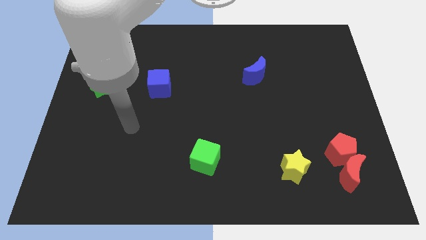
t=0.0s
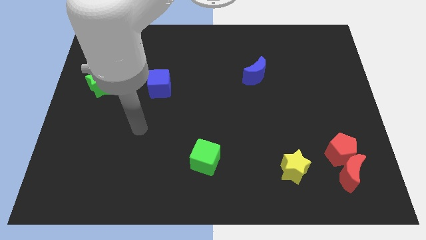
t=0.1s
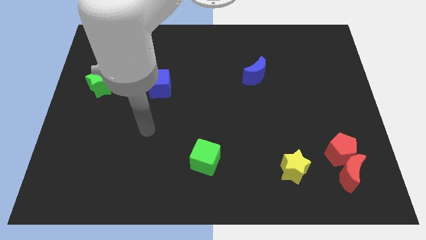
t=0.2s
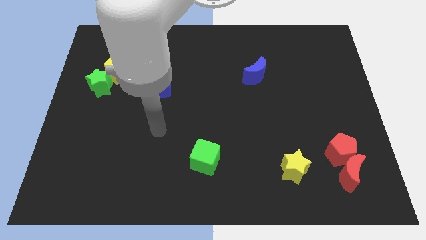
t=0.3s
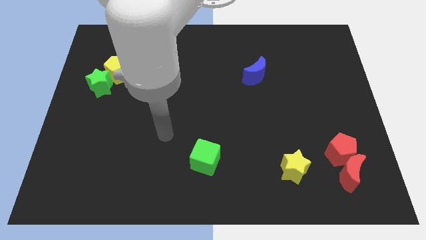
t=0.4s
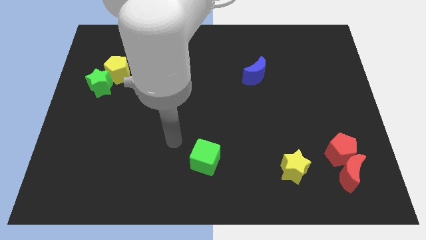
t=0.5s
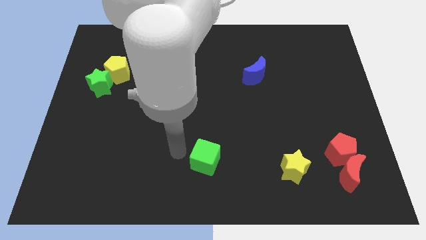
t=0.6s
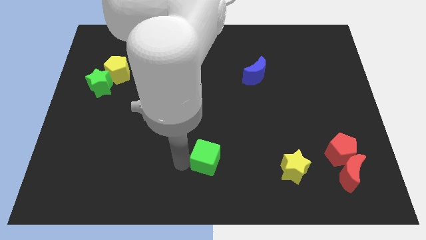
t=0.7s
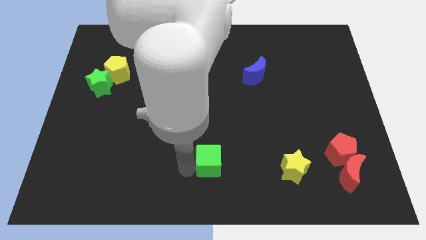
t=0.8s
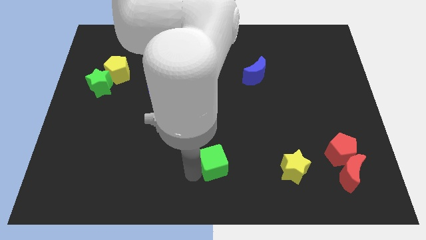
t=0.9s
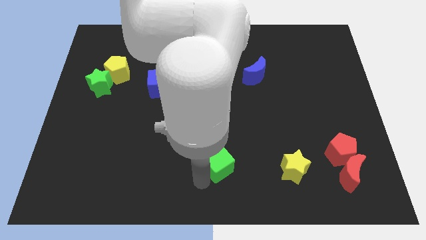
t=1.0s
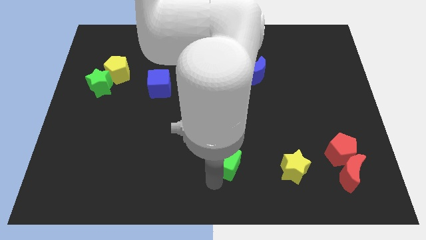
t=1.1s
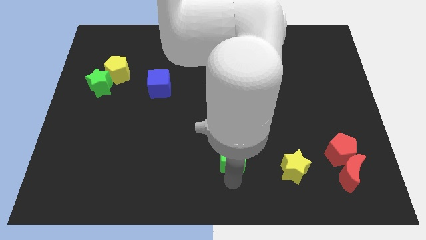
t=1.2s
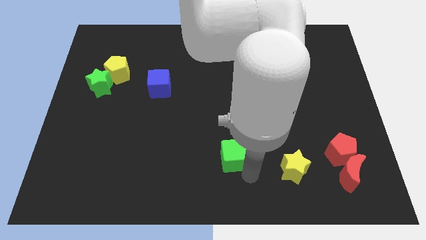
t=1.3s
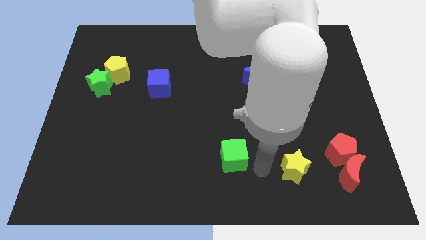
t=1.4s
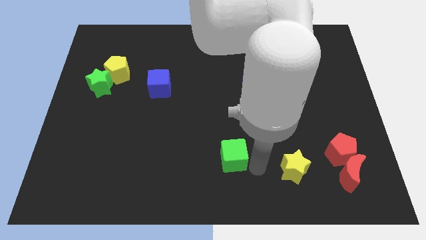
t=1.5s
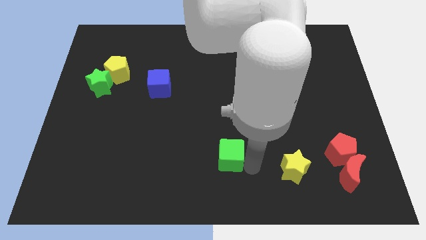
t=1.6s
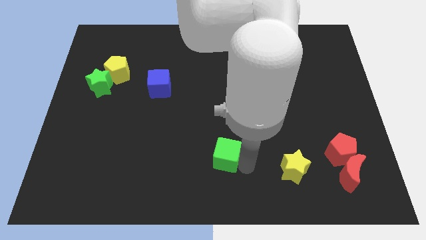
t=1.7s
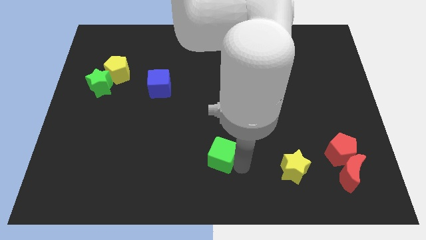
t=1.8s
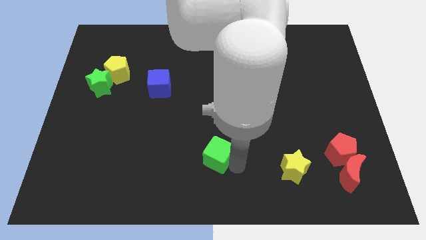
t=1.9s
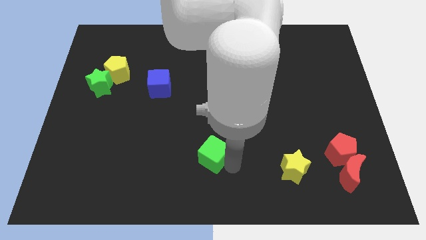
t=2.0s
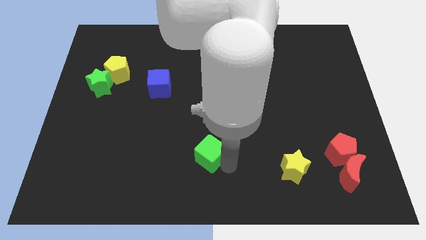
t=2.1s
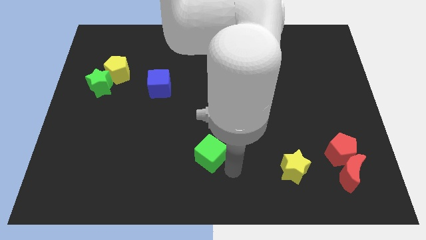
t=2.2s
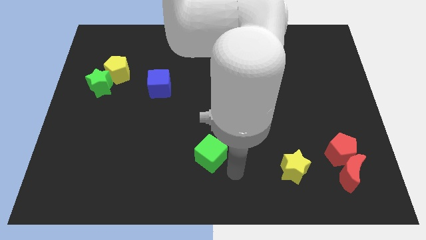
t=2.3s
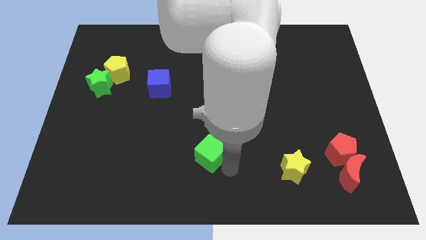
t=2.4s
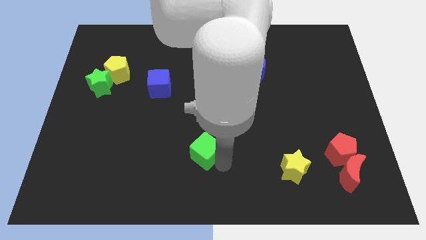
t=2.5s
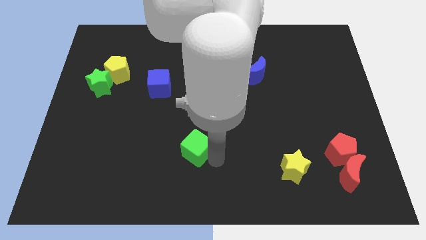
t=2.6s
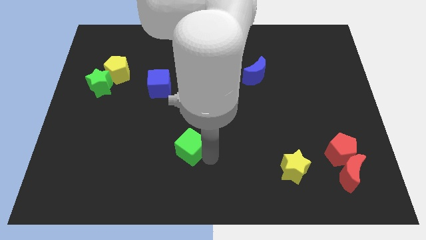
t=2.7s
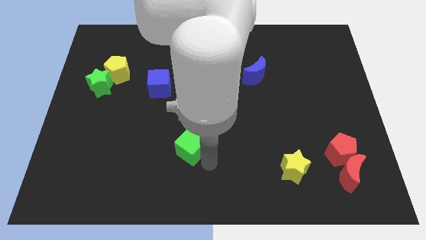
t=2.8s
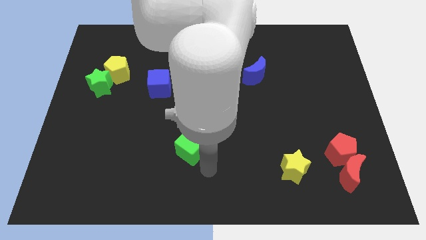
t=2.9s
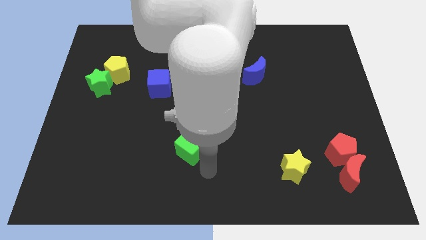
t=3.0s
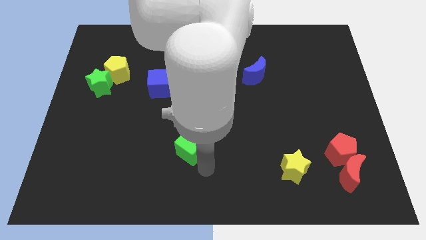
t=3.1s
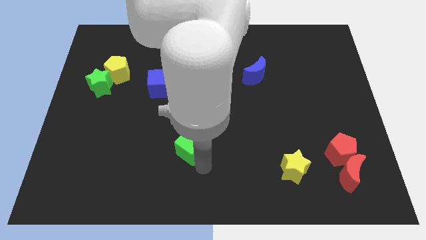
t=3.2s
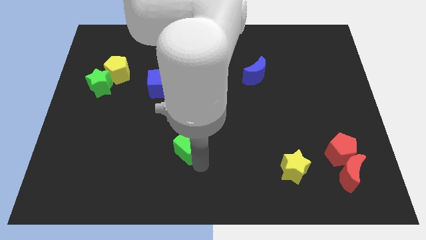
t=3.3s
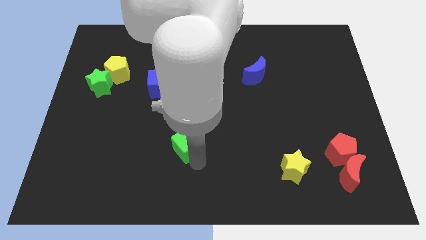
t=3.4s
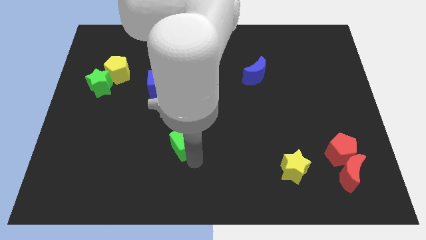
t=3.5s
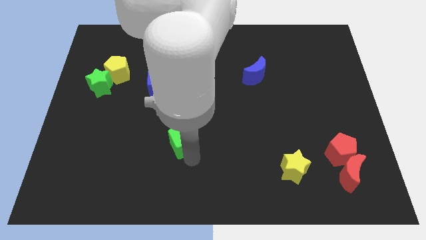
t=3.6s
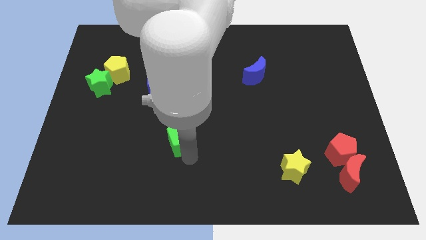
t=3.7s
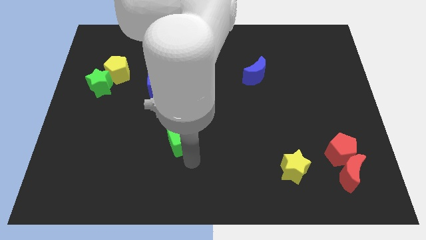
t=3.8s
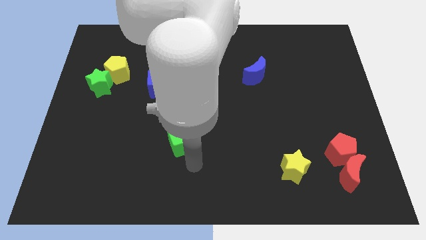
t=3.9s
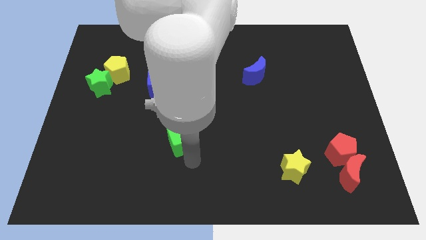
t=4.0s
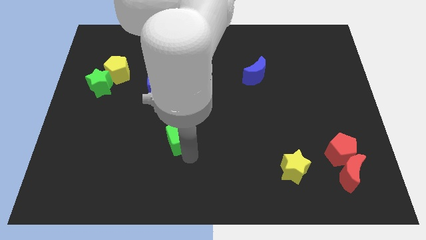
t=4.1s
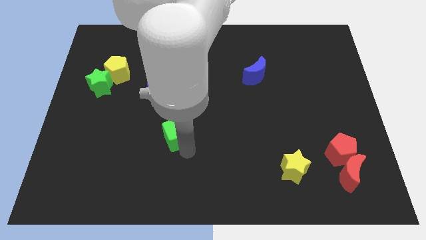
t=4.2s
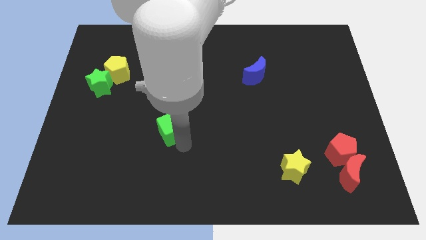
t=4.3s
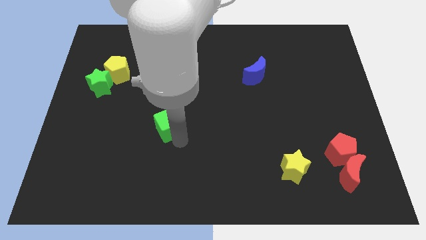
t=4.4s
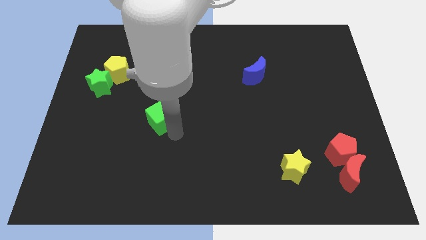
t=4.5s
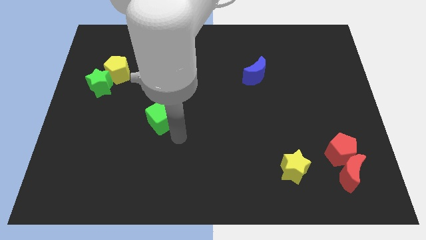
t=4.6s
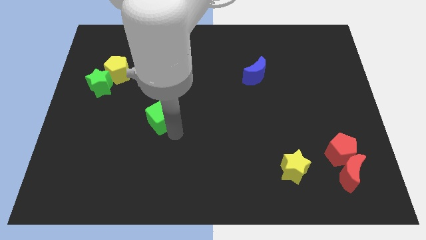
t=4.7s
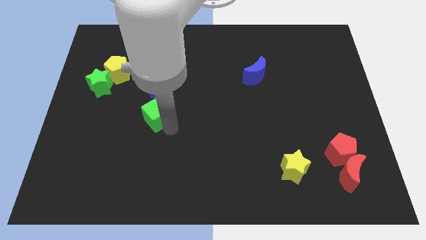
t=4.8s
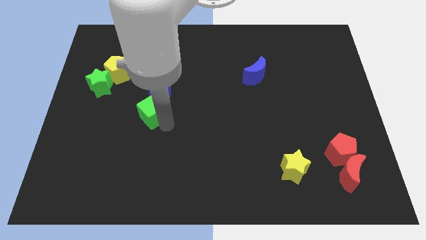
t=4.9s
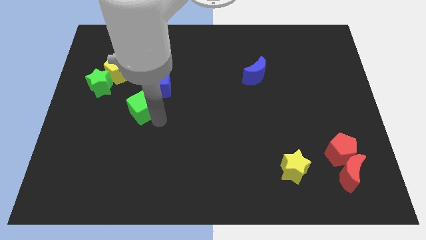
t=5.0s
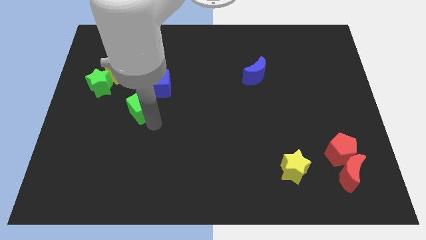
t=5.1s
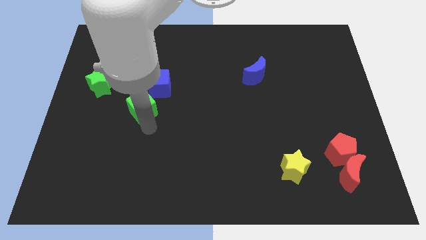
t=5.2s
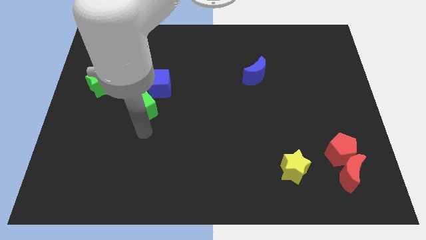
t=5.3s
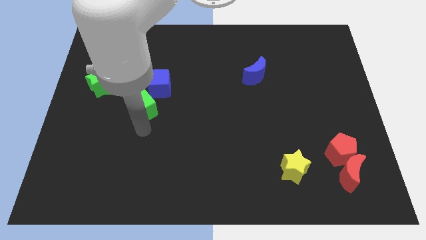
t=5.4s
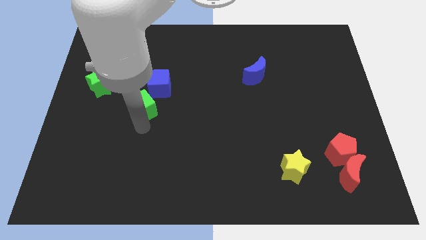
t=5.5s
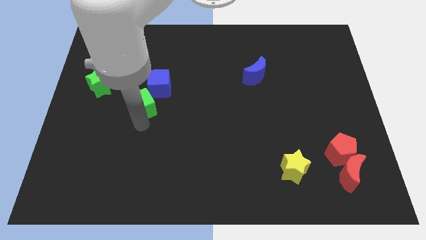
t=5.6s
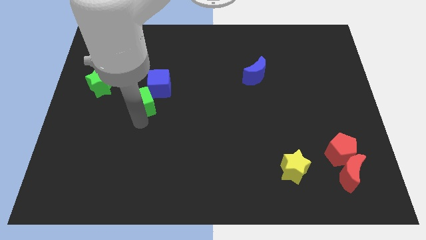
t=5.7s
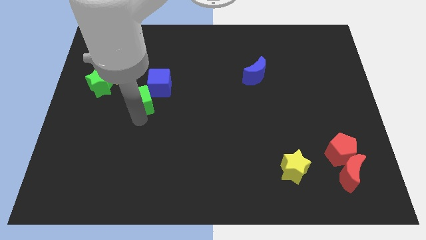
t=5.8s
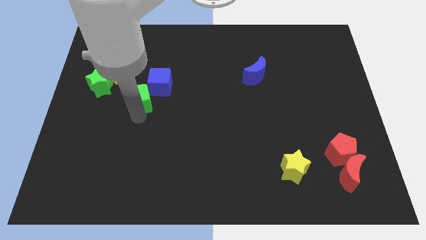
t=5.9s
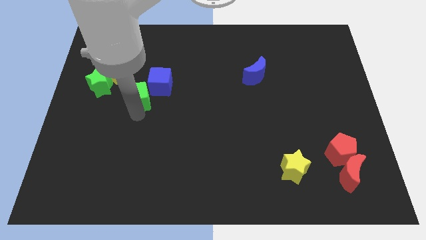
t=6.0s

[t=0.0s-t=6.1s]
put the green cube right of the green star
